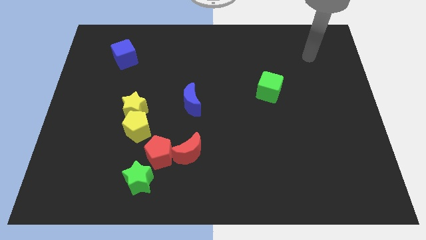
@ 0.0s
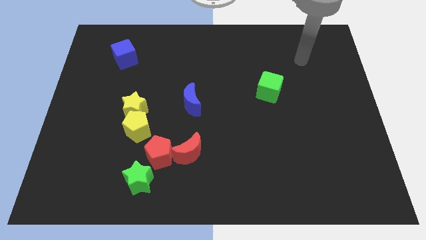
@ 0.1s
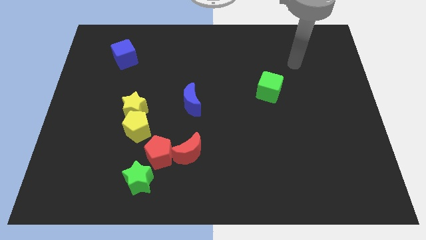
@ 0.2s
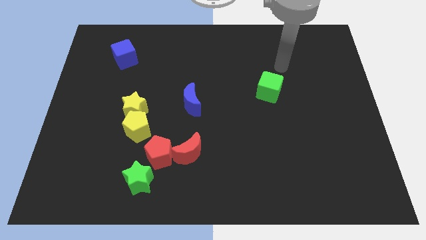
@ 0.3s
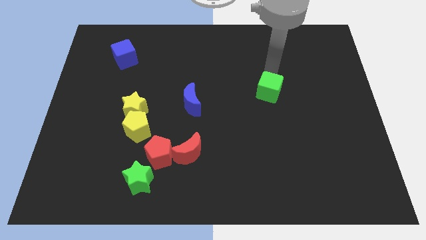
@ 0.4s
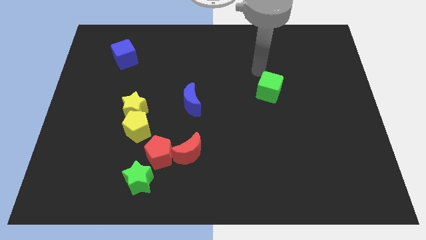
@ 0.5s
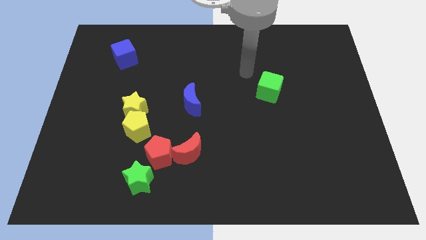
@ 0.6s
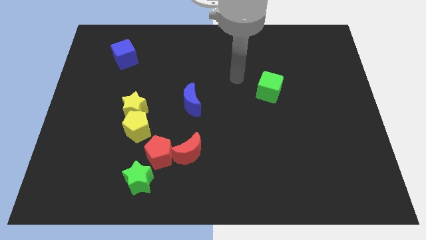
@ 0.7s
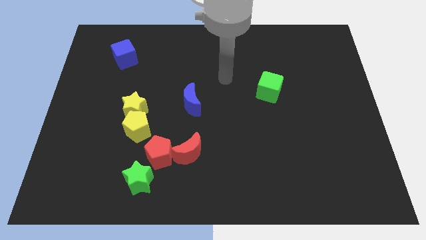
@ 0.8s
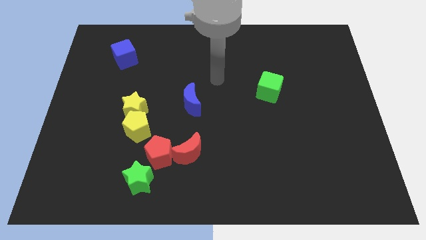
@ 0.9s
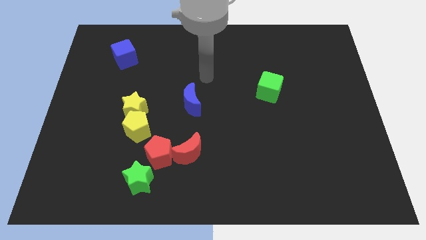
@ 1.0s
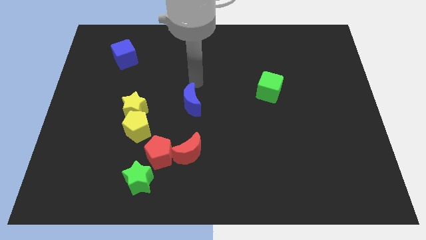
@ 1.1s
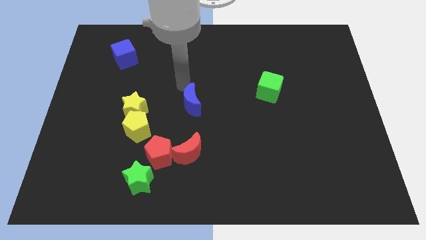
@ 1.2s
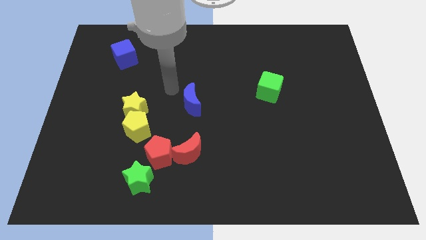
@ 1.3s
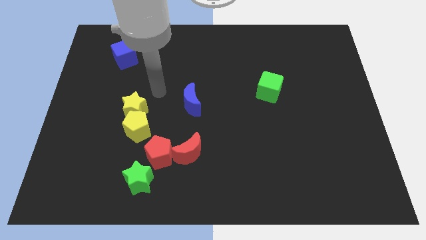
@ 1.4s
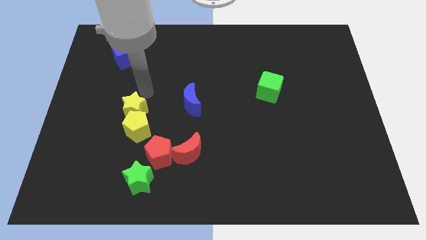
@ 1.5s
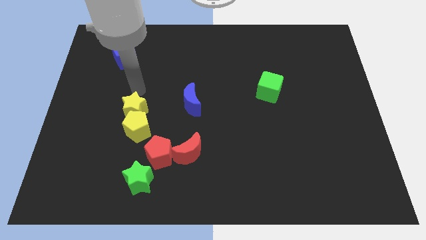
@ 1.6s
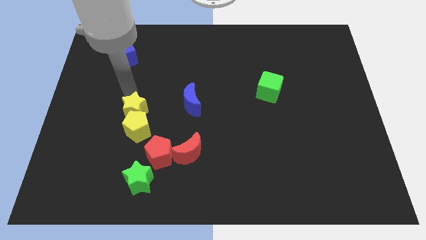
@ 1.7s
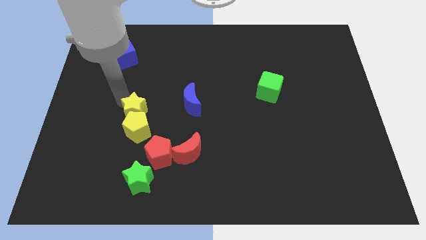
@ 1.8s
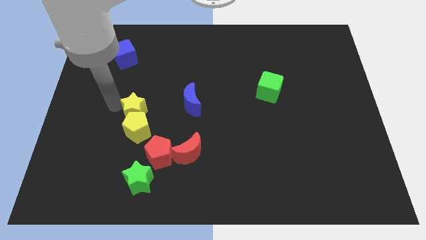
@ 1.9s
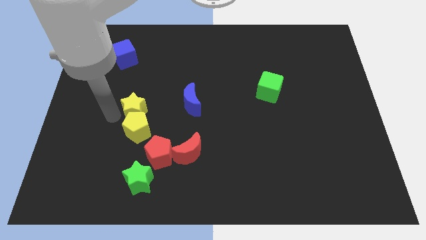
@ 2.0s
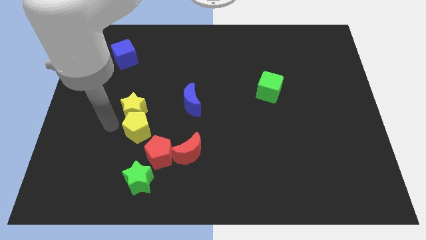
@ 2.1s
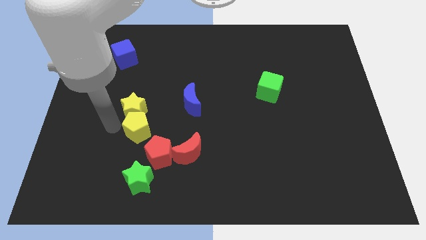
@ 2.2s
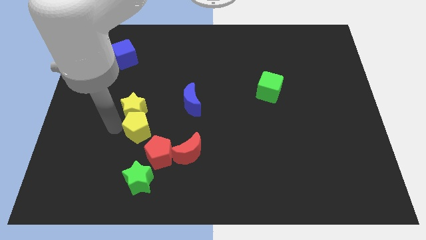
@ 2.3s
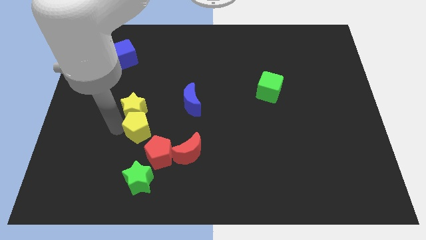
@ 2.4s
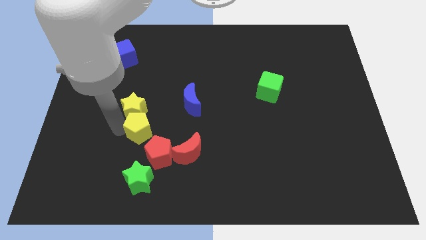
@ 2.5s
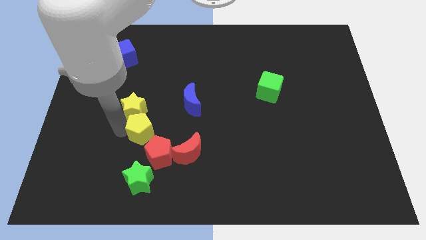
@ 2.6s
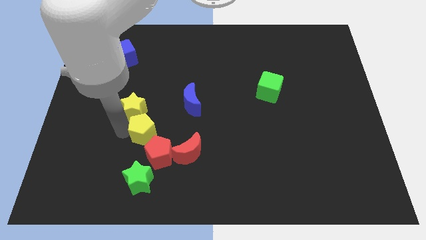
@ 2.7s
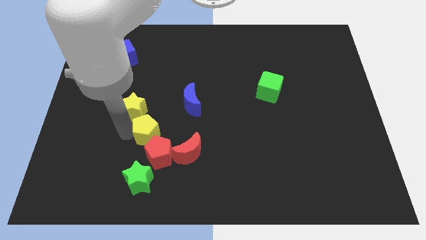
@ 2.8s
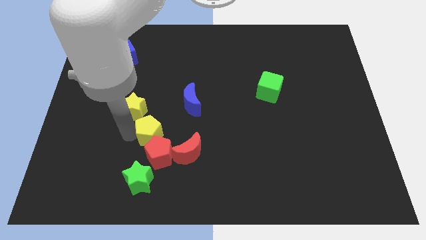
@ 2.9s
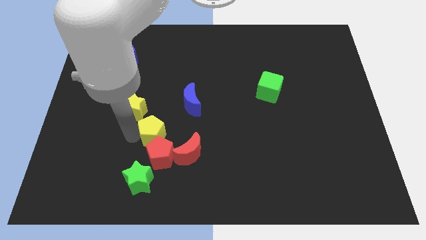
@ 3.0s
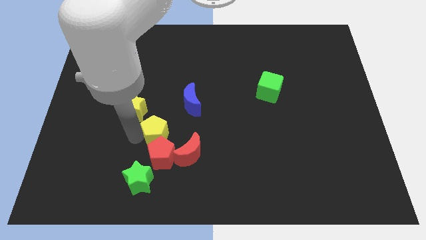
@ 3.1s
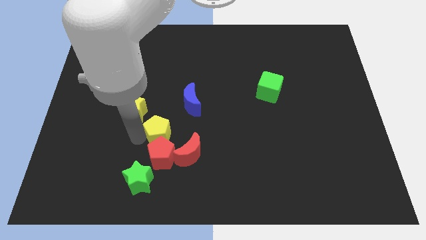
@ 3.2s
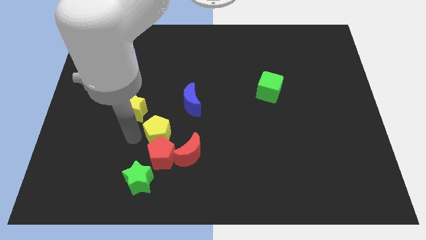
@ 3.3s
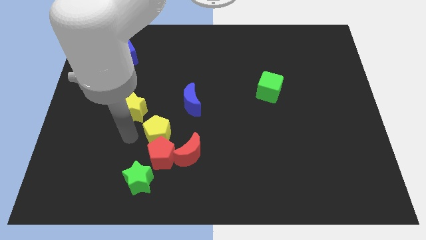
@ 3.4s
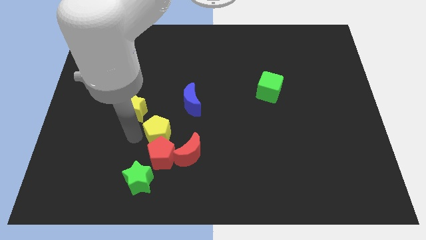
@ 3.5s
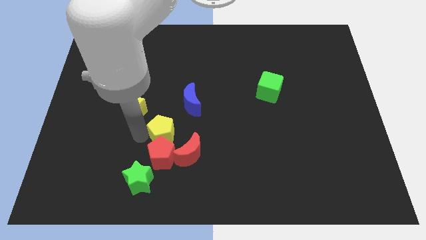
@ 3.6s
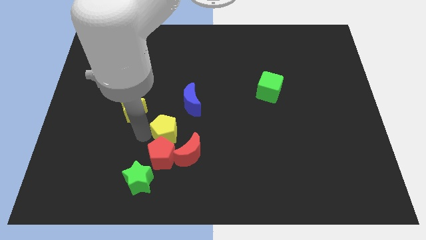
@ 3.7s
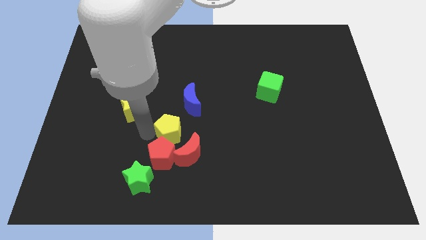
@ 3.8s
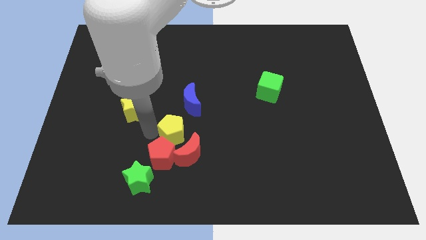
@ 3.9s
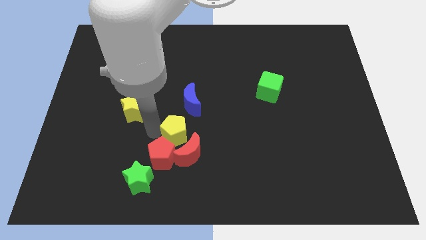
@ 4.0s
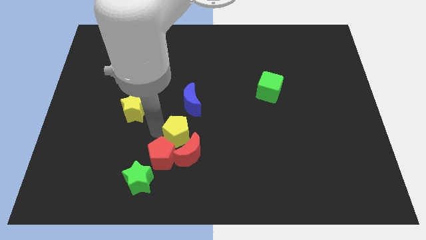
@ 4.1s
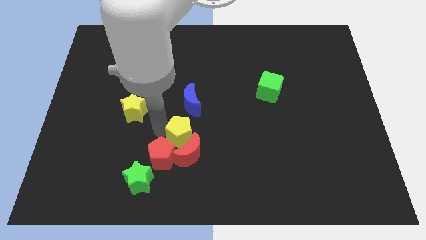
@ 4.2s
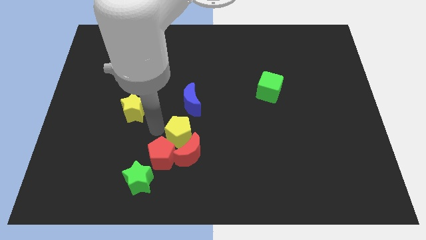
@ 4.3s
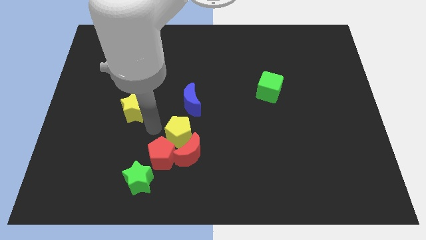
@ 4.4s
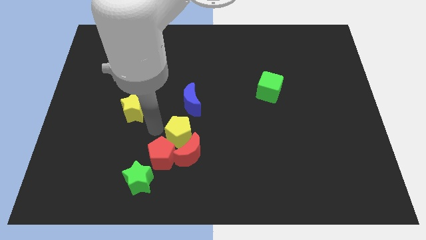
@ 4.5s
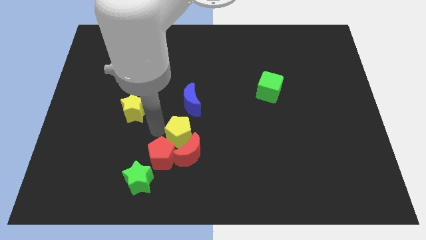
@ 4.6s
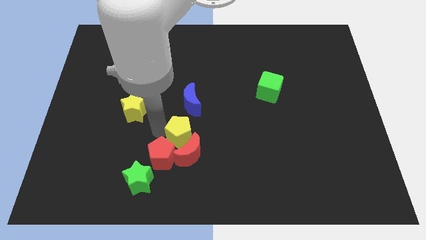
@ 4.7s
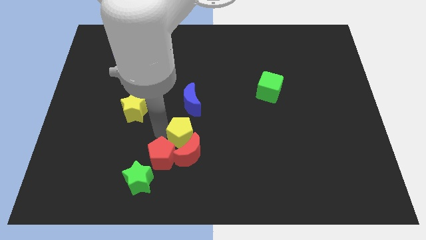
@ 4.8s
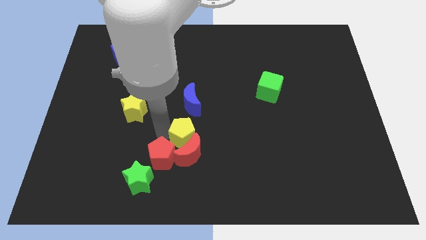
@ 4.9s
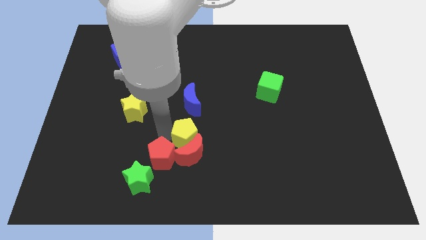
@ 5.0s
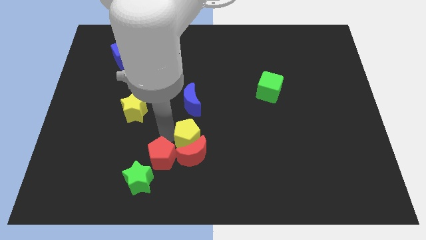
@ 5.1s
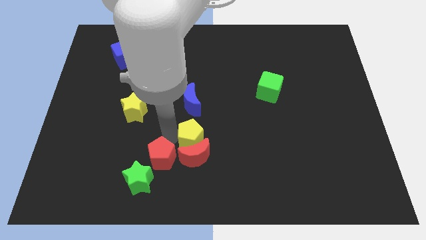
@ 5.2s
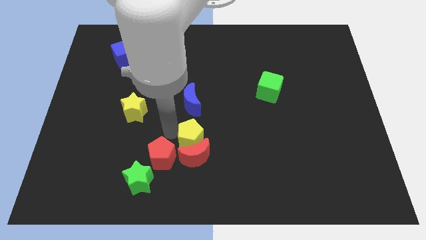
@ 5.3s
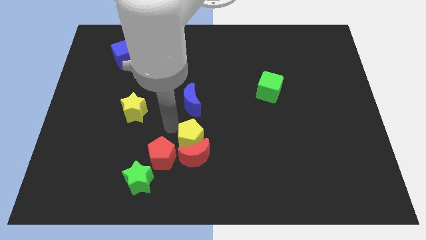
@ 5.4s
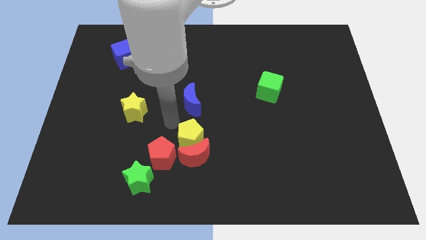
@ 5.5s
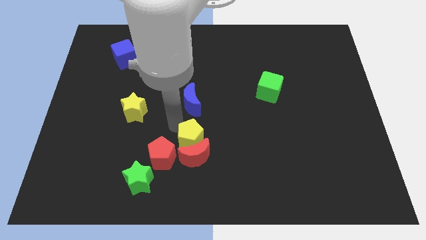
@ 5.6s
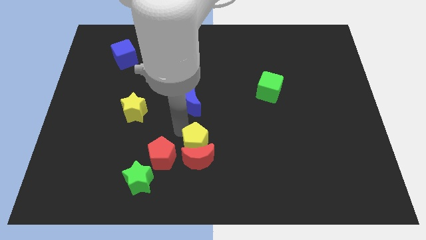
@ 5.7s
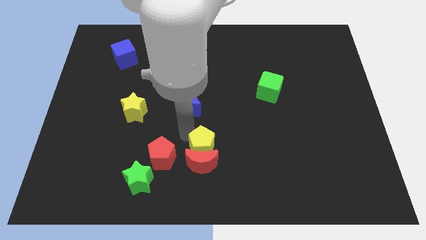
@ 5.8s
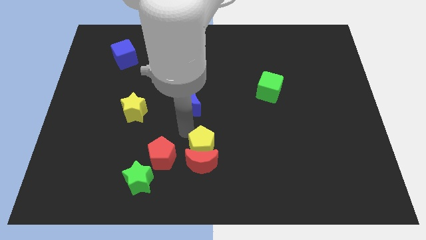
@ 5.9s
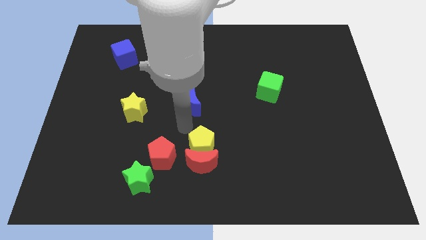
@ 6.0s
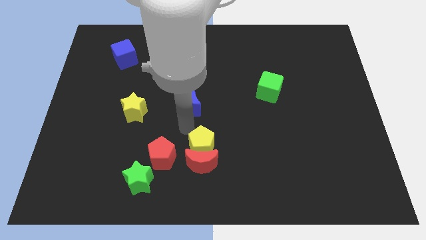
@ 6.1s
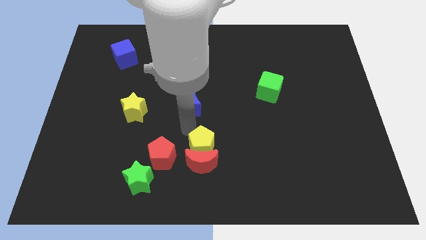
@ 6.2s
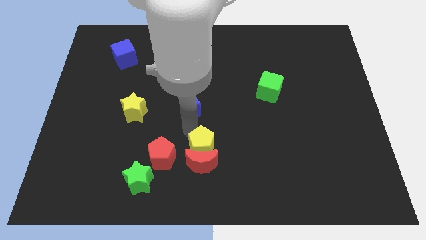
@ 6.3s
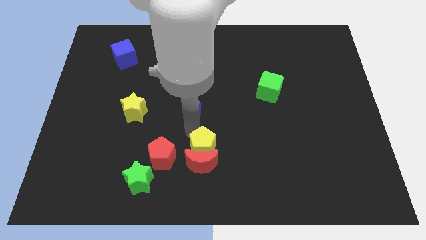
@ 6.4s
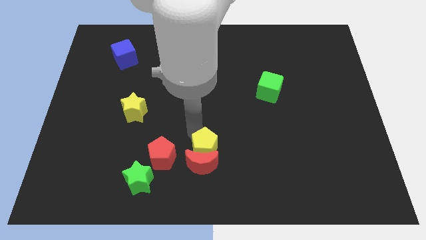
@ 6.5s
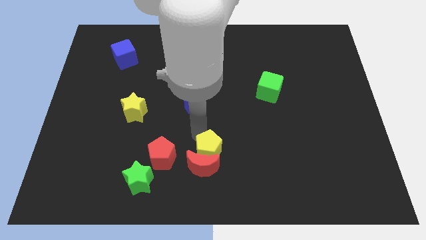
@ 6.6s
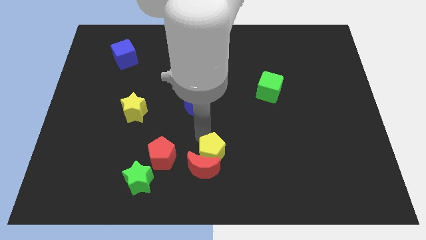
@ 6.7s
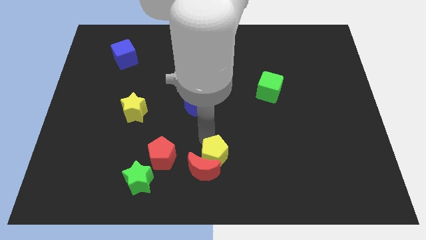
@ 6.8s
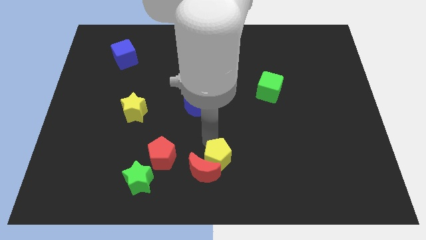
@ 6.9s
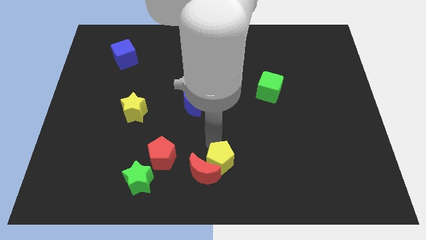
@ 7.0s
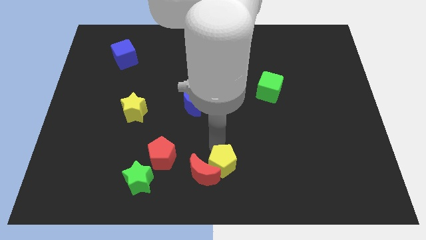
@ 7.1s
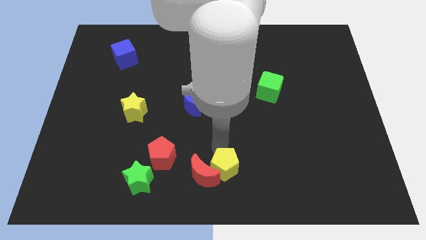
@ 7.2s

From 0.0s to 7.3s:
slide the yellow pentagon to the bottom right of the red moon
